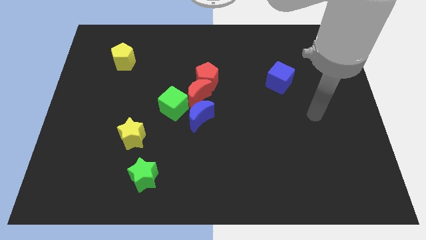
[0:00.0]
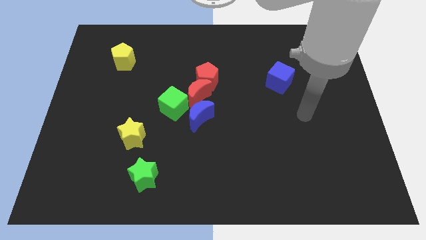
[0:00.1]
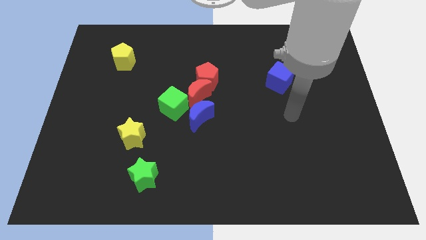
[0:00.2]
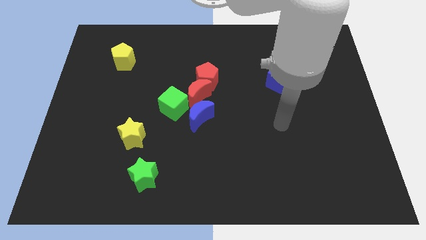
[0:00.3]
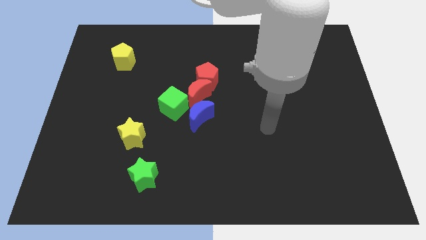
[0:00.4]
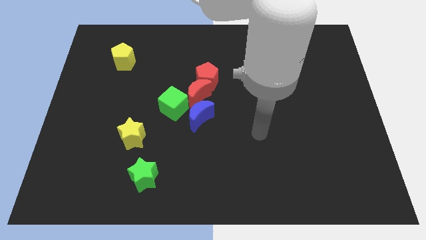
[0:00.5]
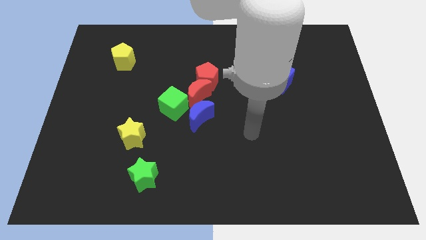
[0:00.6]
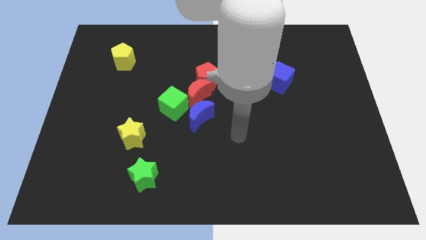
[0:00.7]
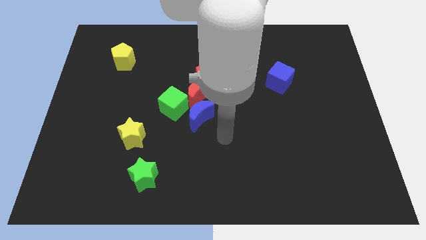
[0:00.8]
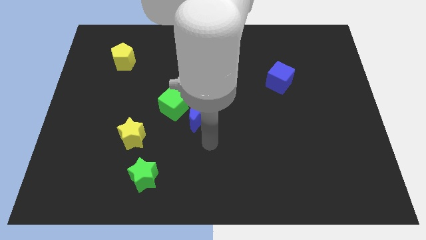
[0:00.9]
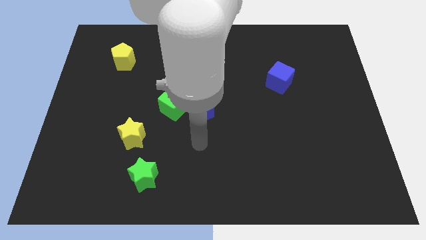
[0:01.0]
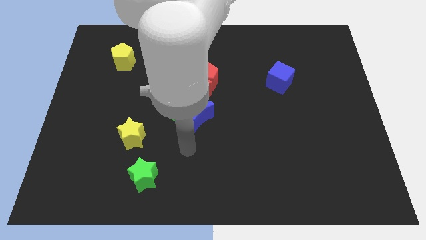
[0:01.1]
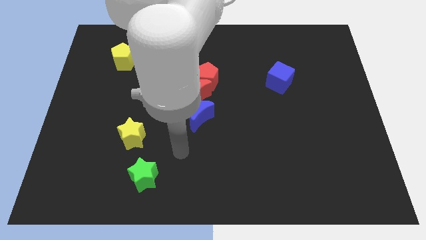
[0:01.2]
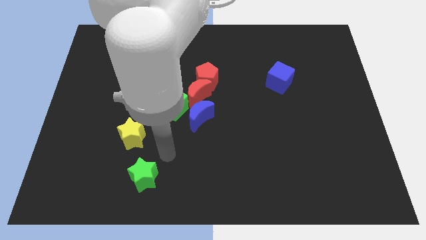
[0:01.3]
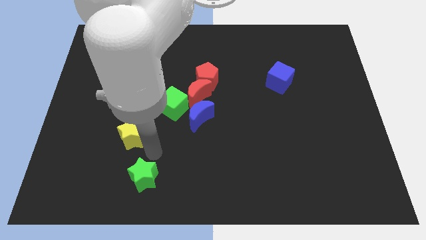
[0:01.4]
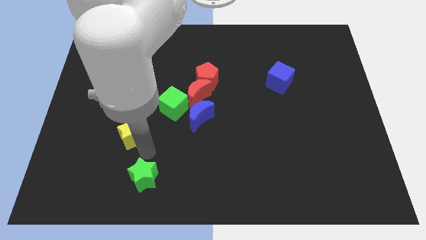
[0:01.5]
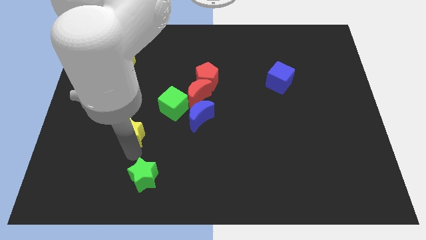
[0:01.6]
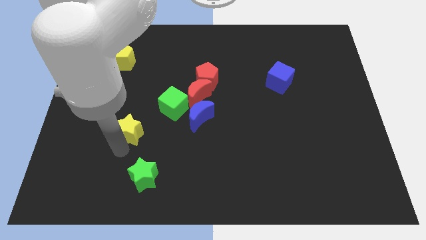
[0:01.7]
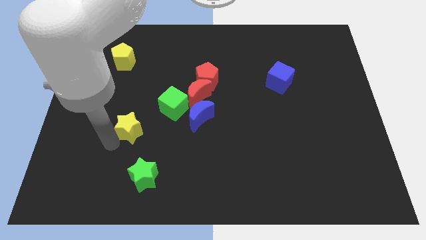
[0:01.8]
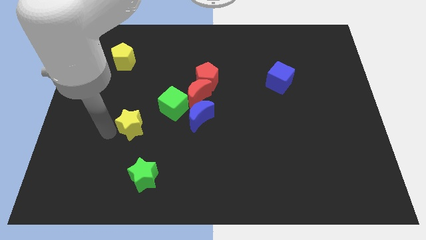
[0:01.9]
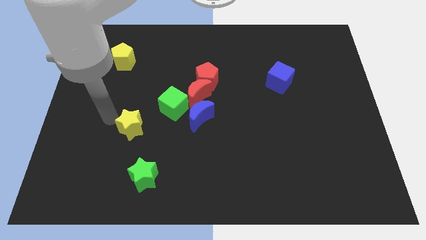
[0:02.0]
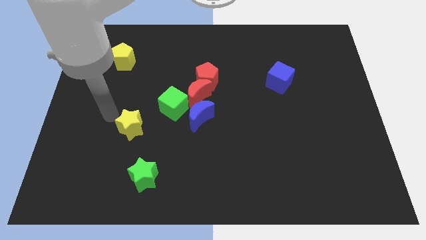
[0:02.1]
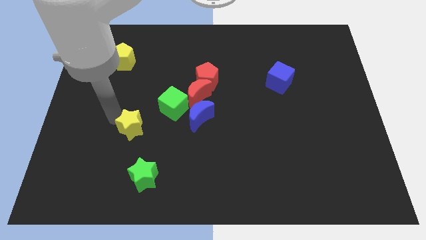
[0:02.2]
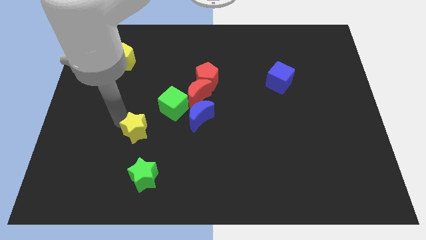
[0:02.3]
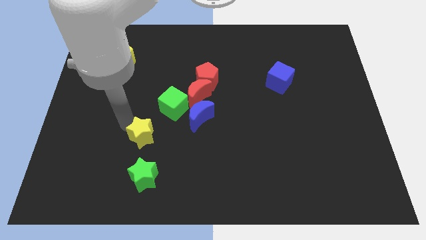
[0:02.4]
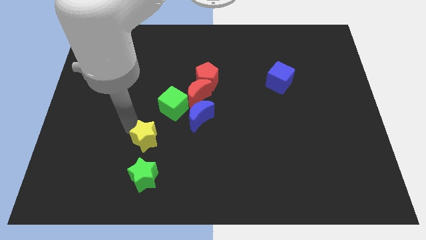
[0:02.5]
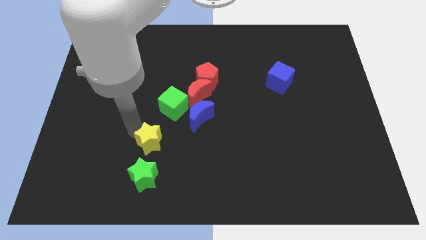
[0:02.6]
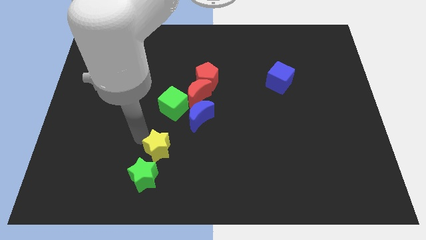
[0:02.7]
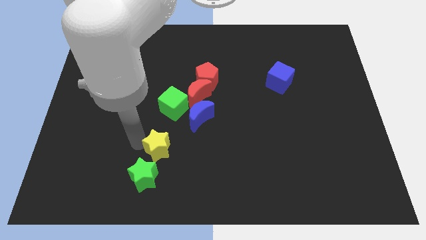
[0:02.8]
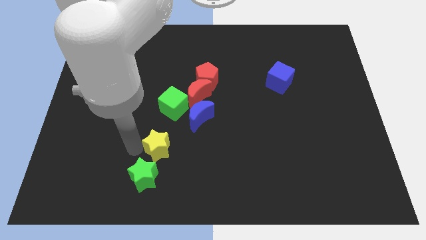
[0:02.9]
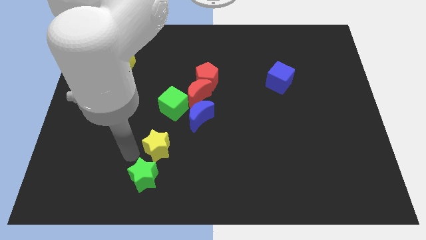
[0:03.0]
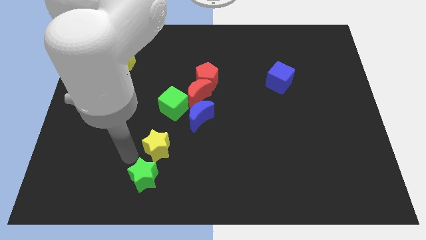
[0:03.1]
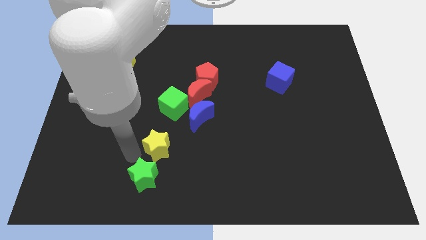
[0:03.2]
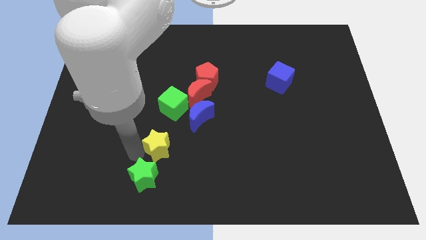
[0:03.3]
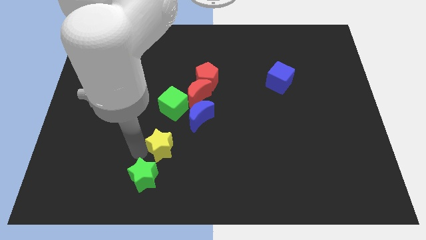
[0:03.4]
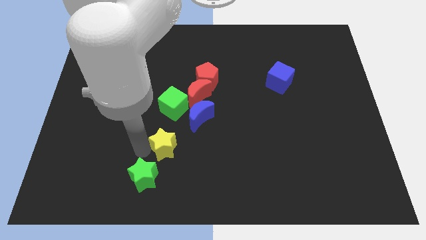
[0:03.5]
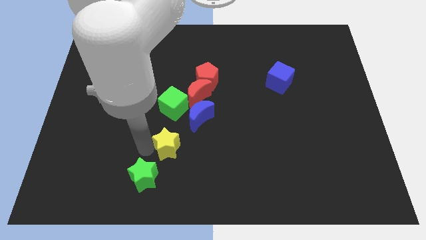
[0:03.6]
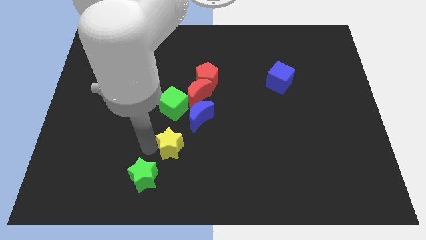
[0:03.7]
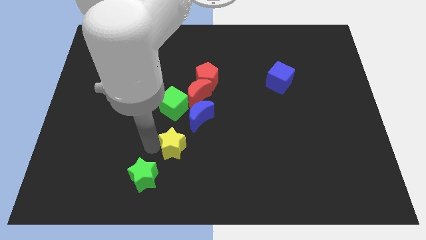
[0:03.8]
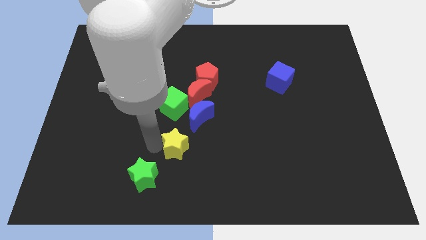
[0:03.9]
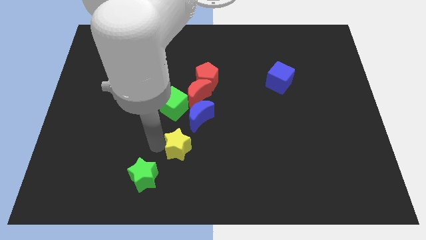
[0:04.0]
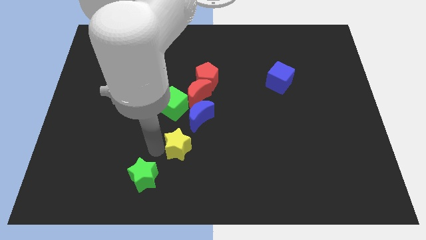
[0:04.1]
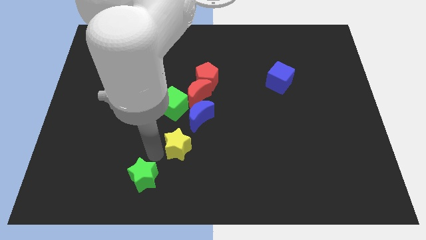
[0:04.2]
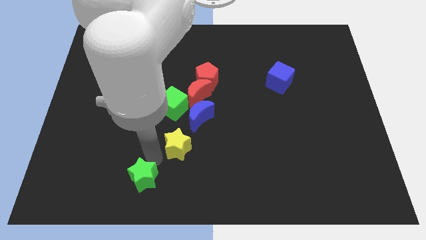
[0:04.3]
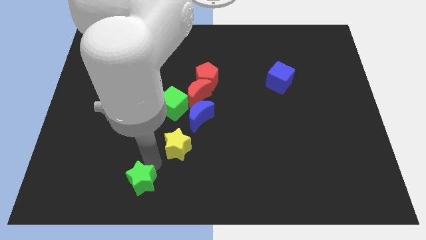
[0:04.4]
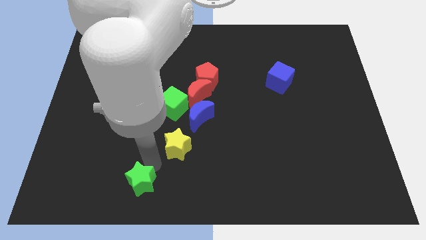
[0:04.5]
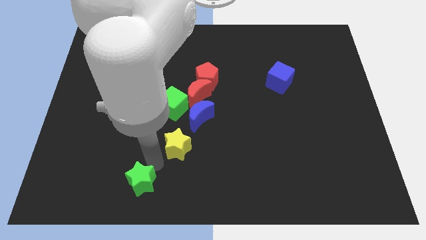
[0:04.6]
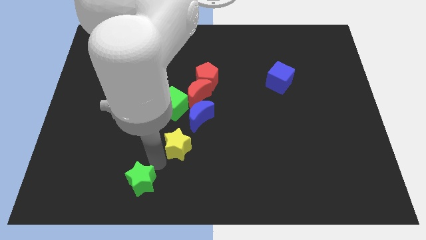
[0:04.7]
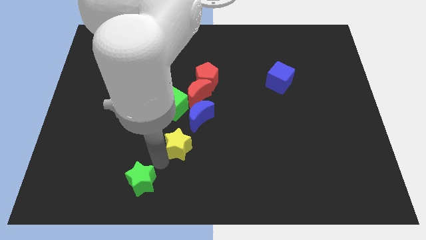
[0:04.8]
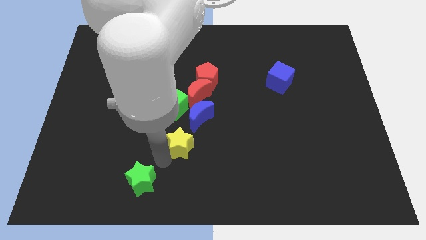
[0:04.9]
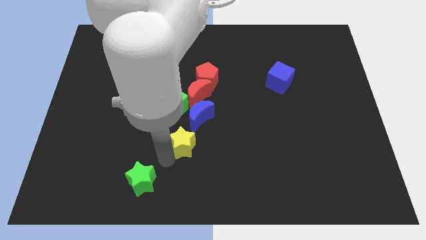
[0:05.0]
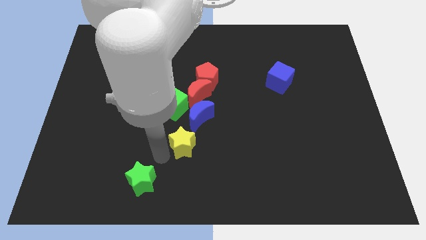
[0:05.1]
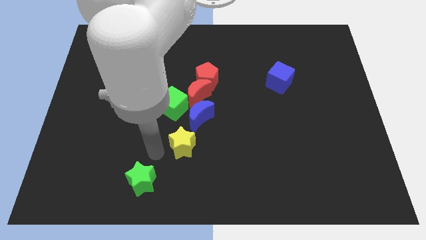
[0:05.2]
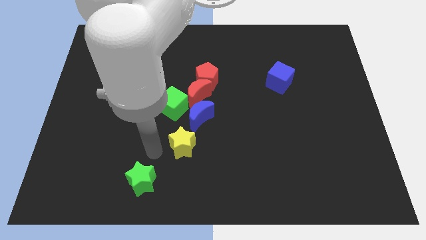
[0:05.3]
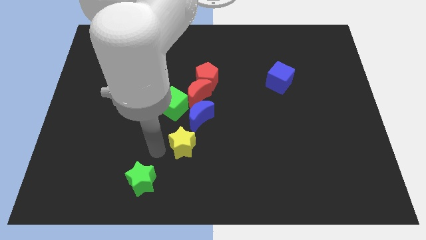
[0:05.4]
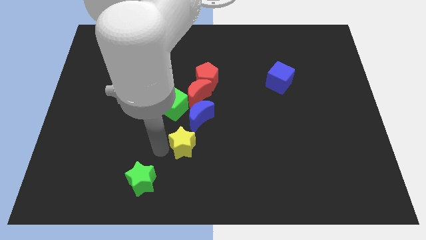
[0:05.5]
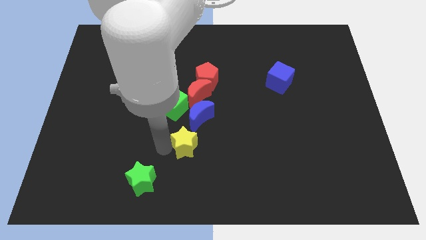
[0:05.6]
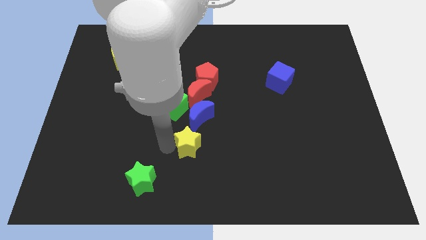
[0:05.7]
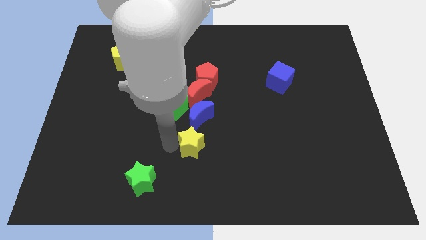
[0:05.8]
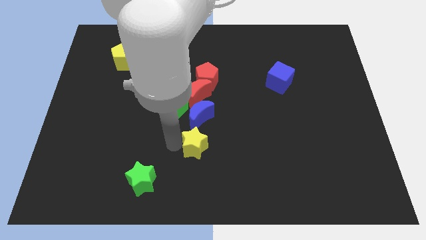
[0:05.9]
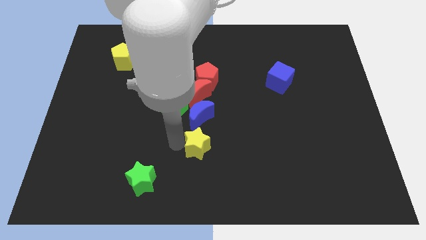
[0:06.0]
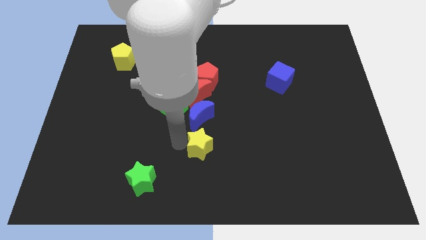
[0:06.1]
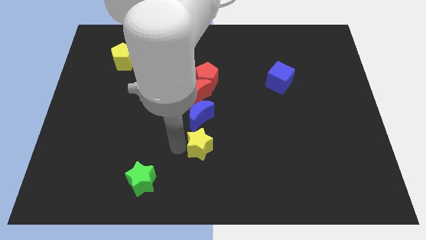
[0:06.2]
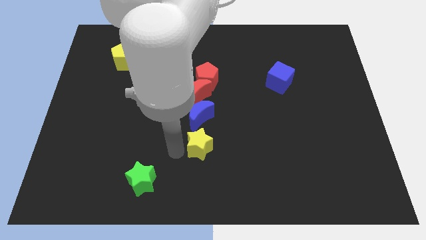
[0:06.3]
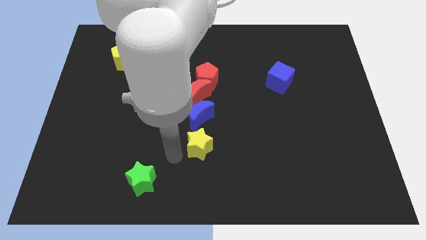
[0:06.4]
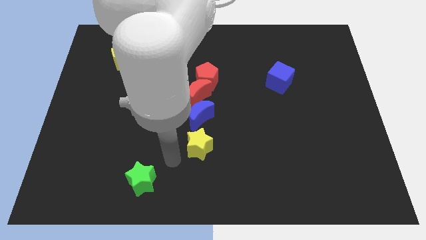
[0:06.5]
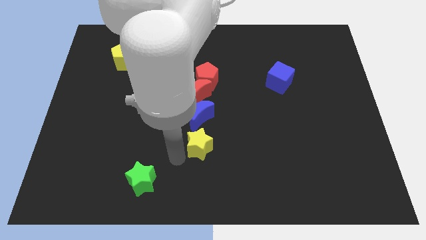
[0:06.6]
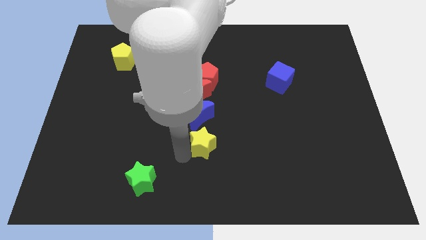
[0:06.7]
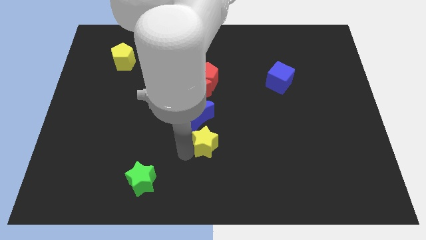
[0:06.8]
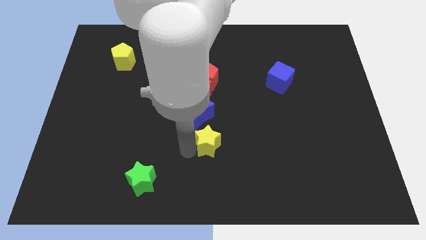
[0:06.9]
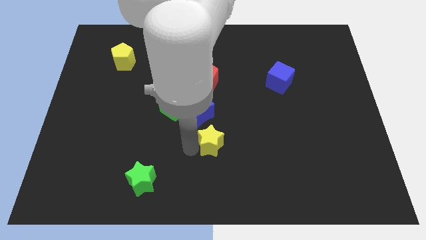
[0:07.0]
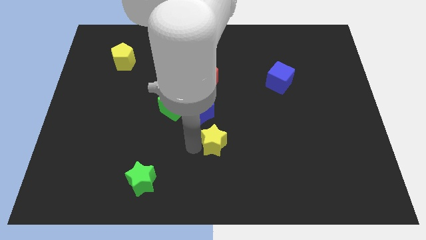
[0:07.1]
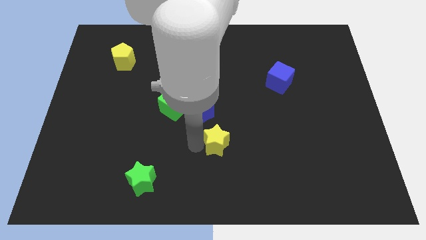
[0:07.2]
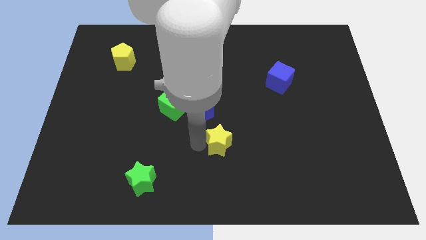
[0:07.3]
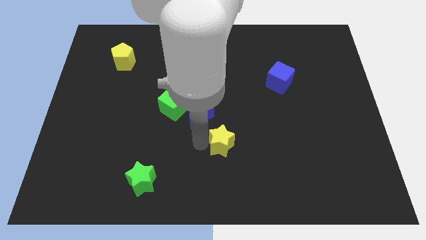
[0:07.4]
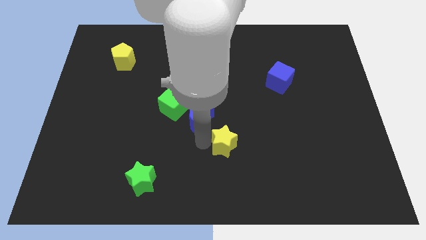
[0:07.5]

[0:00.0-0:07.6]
push the yellow star right

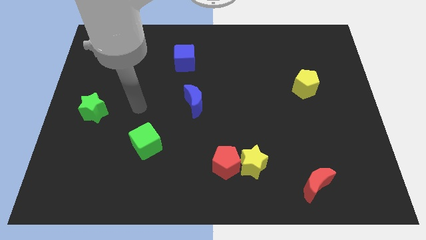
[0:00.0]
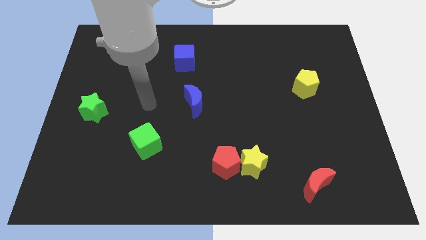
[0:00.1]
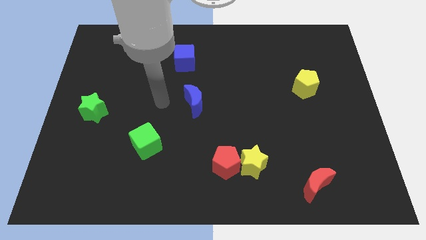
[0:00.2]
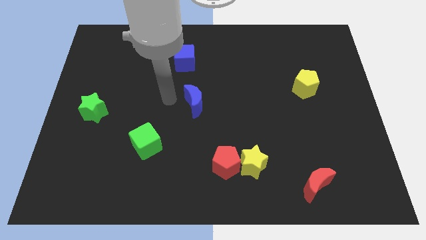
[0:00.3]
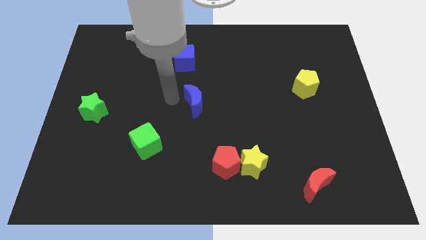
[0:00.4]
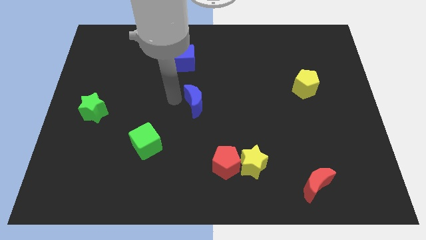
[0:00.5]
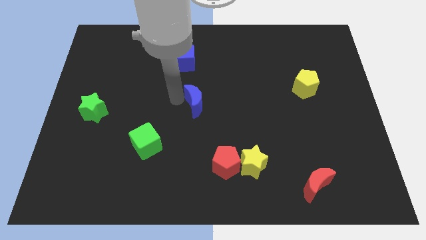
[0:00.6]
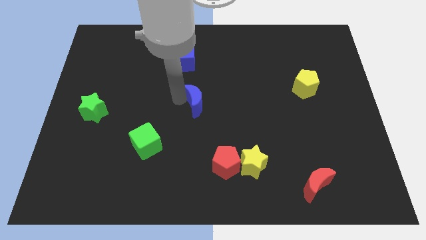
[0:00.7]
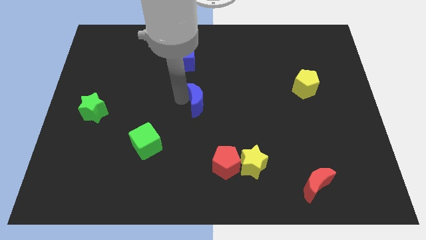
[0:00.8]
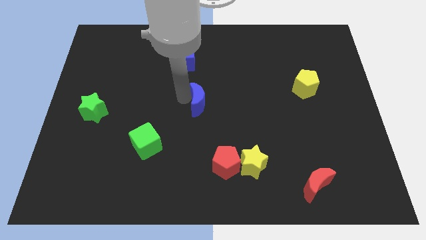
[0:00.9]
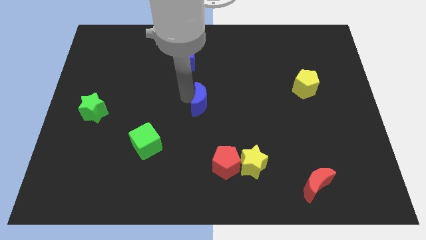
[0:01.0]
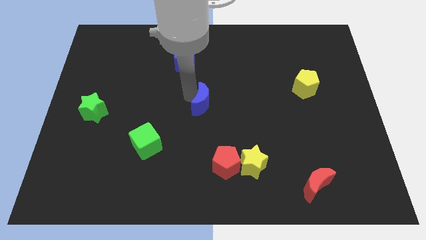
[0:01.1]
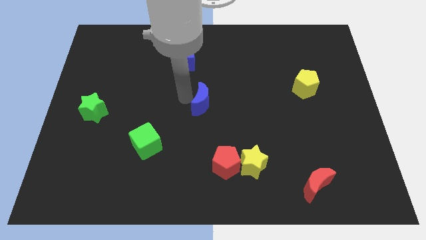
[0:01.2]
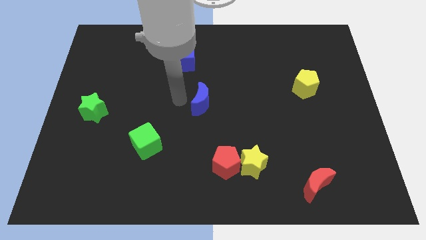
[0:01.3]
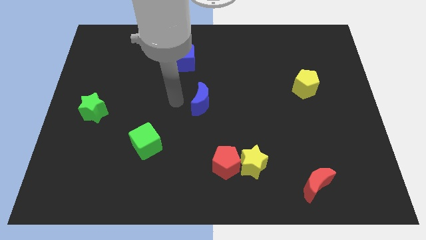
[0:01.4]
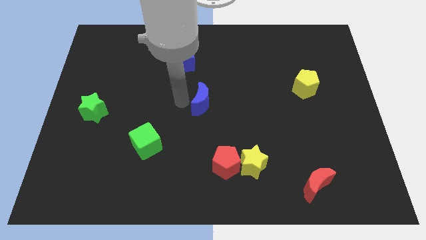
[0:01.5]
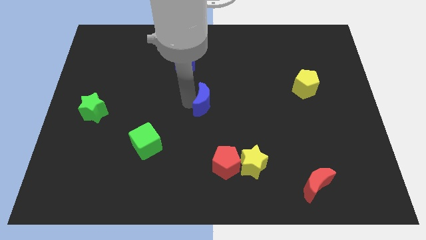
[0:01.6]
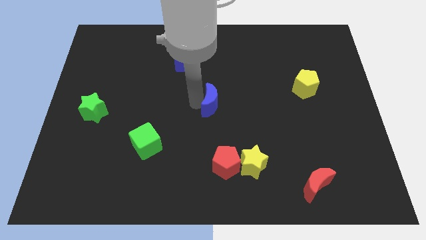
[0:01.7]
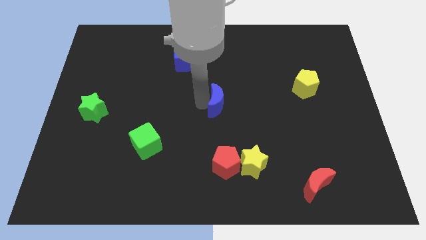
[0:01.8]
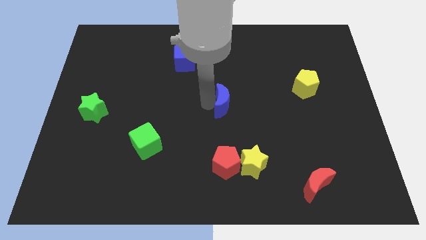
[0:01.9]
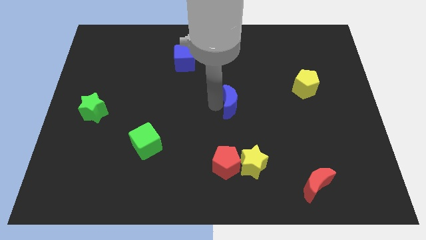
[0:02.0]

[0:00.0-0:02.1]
move the blue moon right slightly
